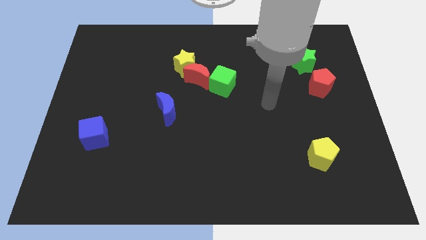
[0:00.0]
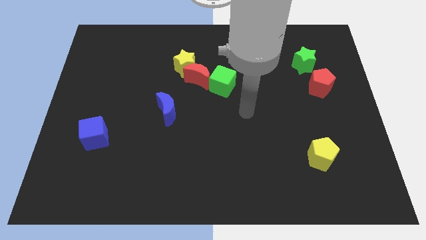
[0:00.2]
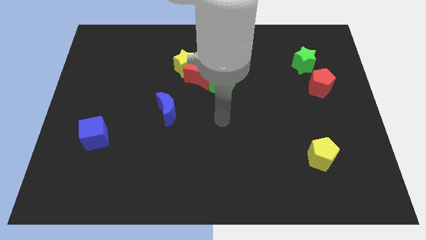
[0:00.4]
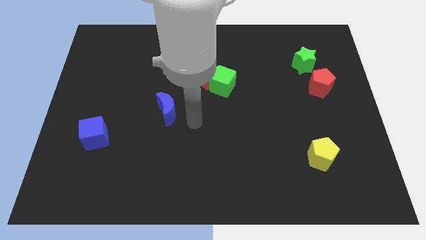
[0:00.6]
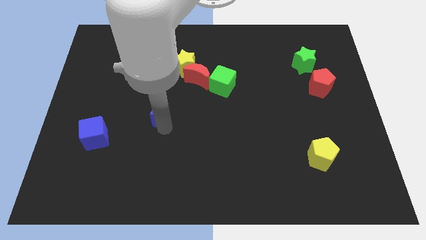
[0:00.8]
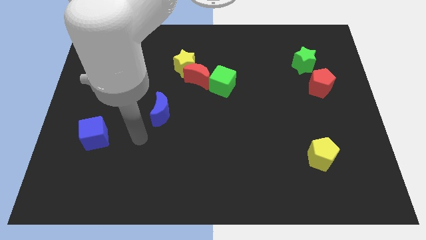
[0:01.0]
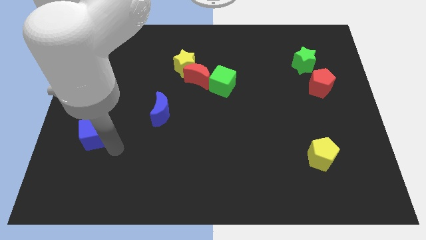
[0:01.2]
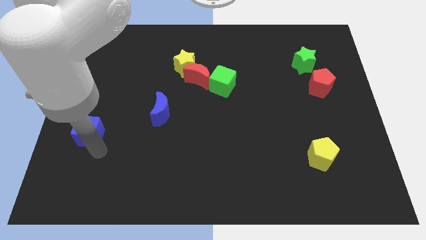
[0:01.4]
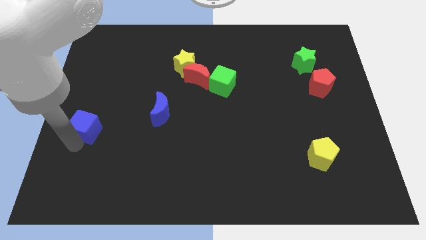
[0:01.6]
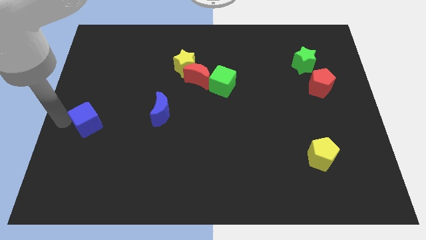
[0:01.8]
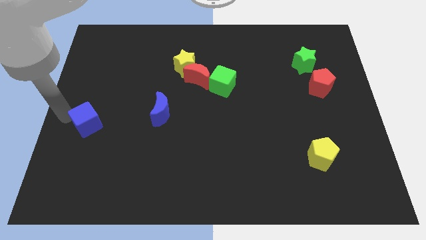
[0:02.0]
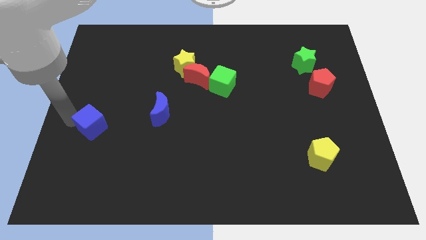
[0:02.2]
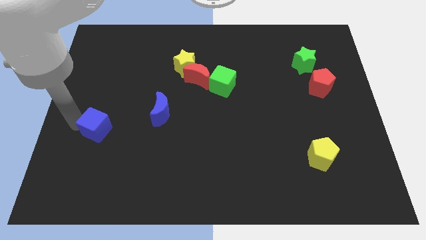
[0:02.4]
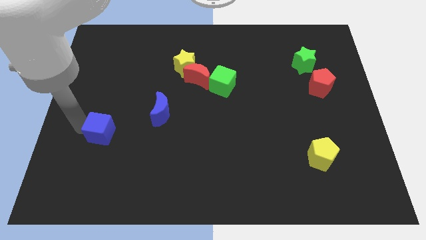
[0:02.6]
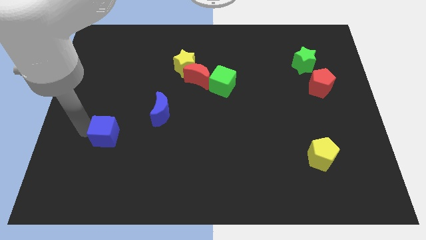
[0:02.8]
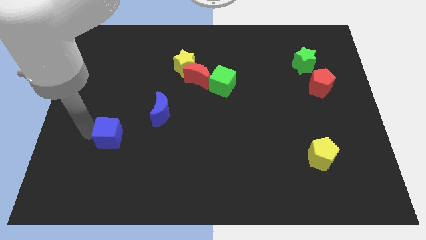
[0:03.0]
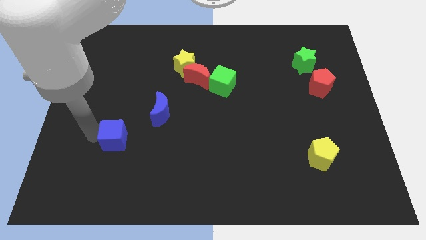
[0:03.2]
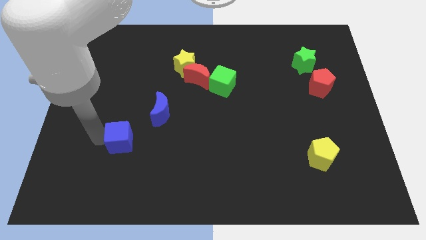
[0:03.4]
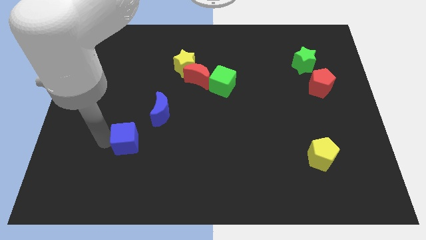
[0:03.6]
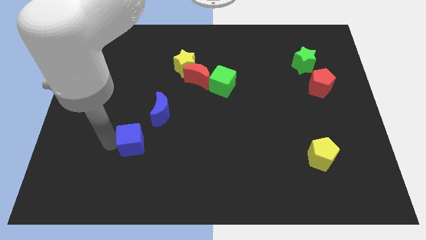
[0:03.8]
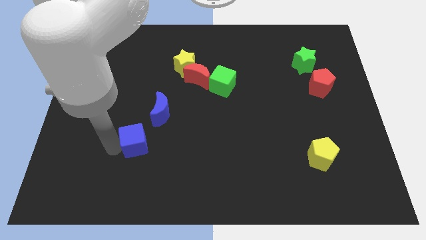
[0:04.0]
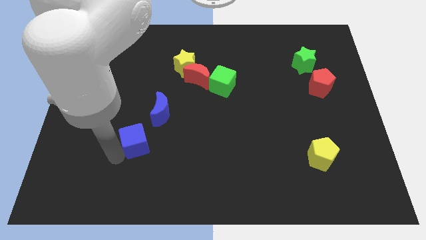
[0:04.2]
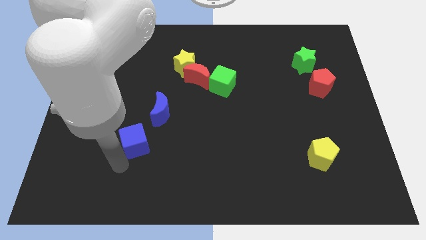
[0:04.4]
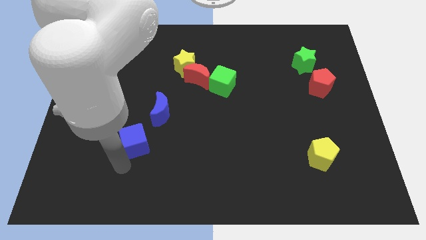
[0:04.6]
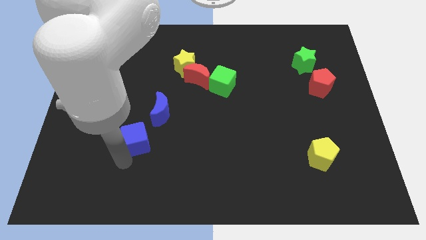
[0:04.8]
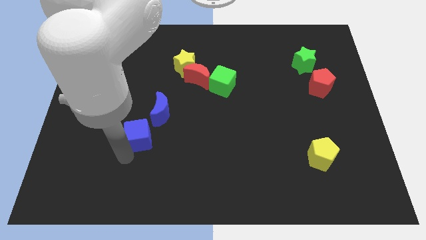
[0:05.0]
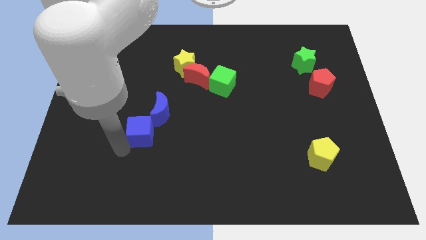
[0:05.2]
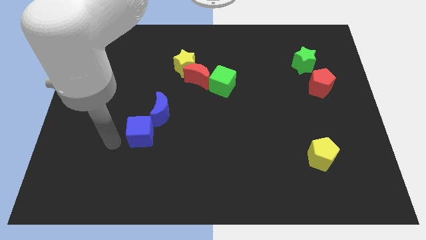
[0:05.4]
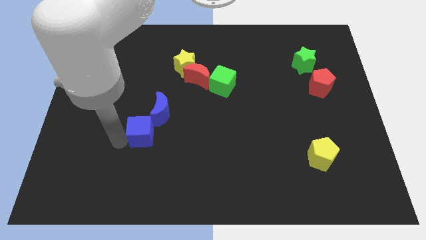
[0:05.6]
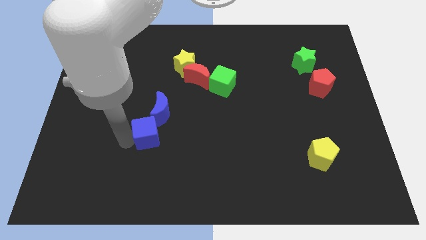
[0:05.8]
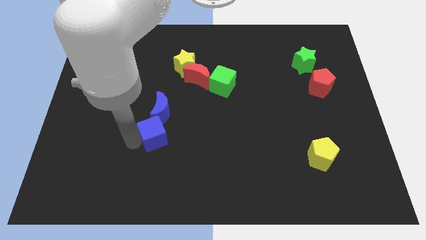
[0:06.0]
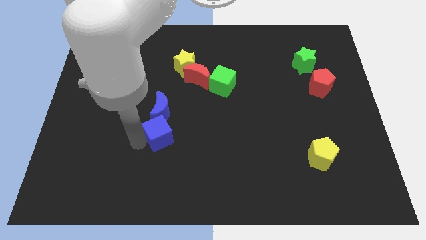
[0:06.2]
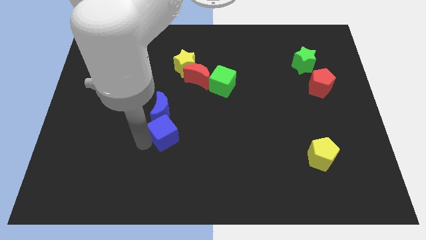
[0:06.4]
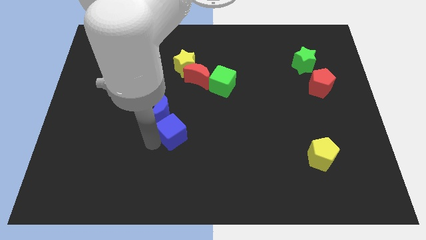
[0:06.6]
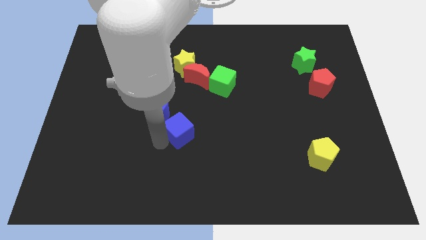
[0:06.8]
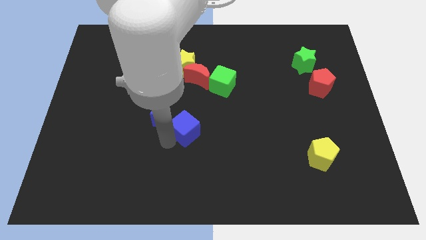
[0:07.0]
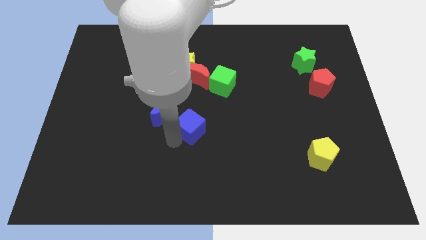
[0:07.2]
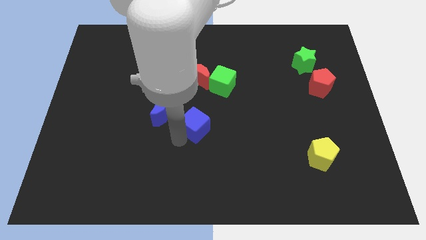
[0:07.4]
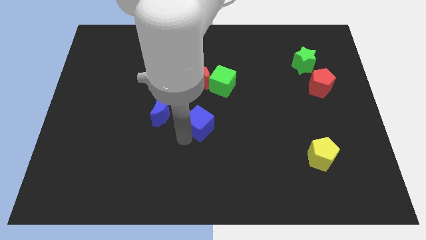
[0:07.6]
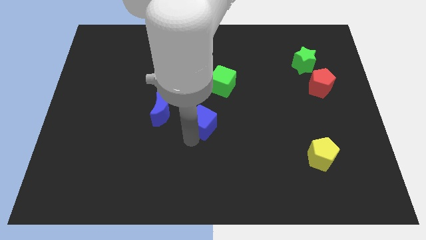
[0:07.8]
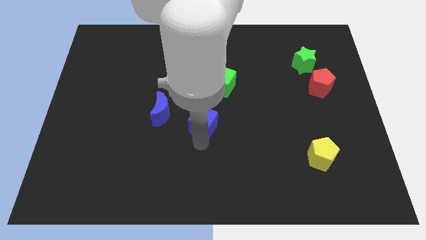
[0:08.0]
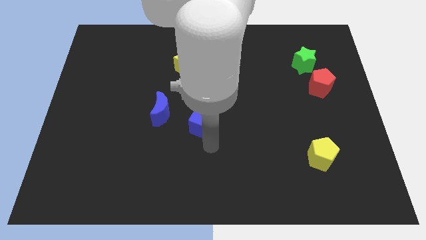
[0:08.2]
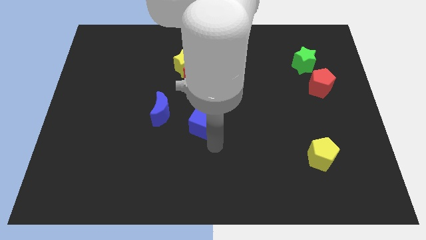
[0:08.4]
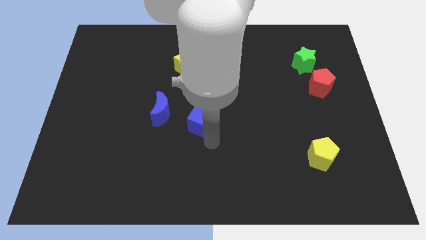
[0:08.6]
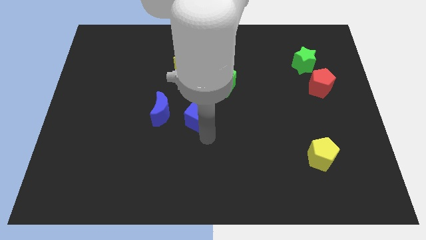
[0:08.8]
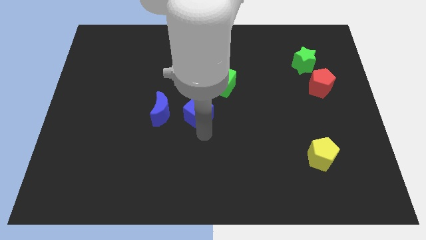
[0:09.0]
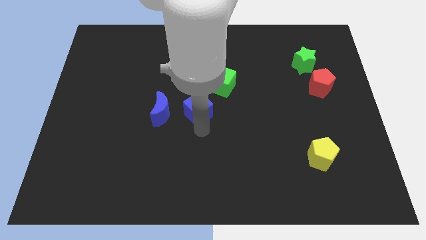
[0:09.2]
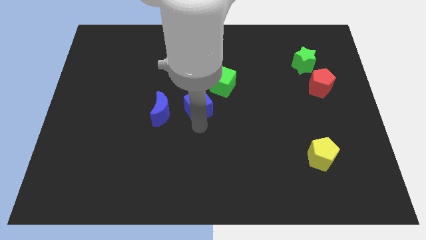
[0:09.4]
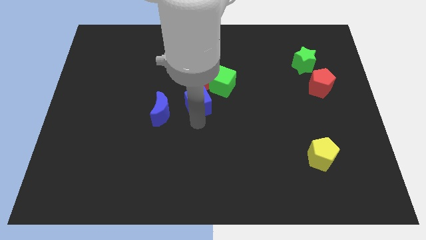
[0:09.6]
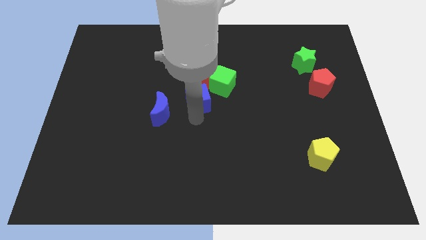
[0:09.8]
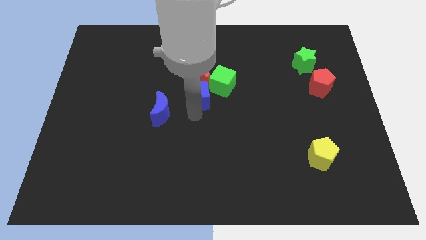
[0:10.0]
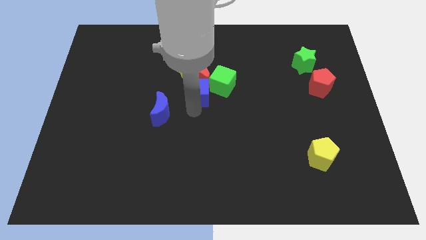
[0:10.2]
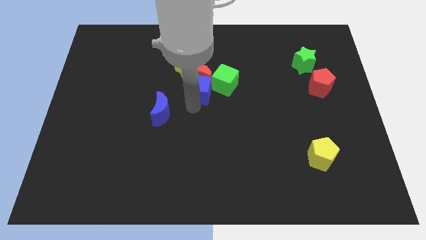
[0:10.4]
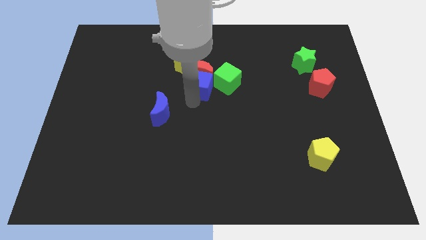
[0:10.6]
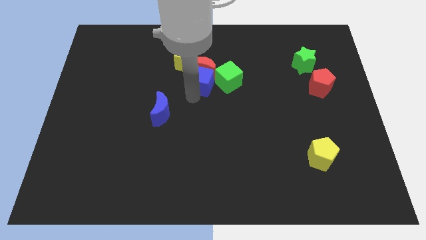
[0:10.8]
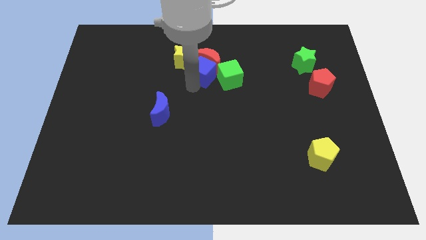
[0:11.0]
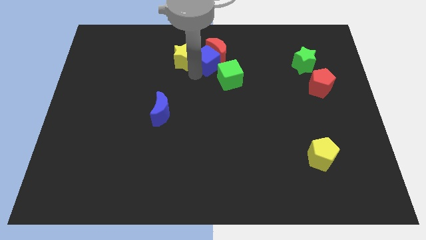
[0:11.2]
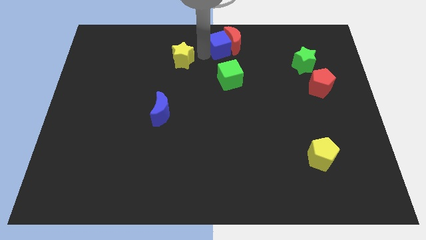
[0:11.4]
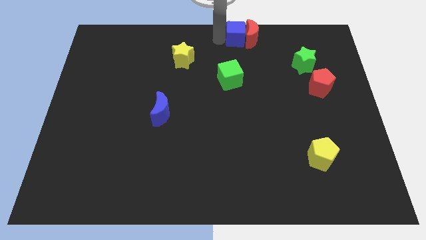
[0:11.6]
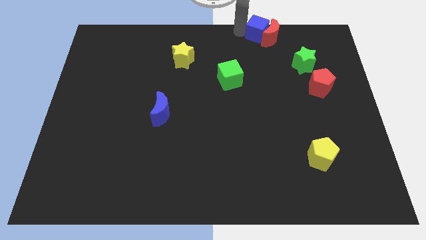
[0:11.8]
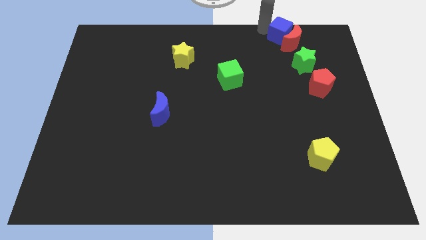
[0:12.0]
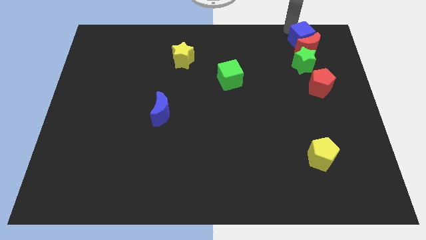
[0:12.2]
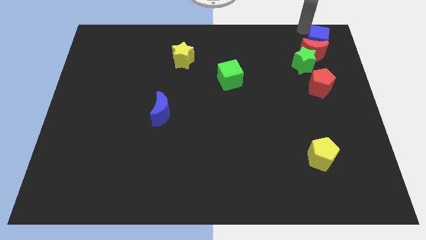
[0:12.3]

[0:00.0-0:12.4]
move the blue cube to the top right

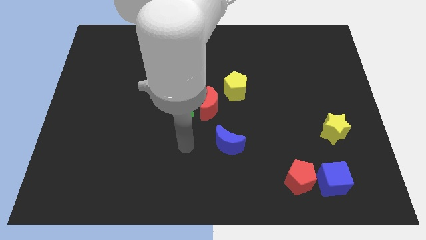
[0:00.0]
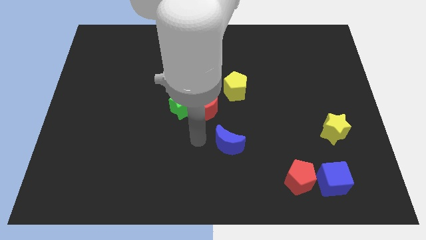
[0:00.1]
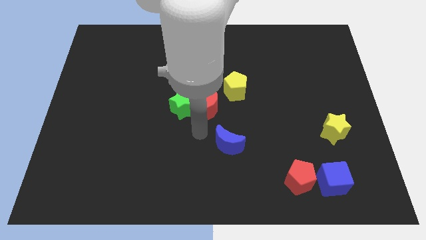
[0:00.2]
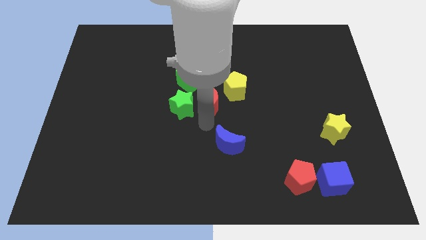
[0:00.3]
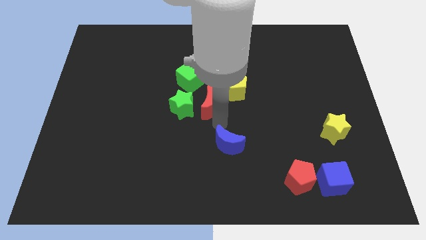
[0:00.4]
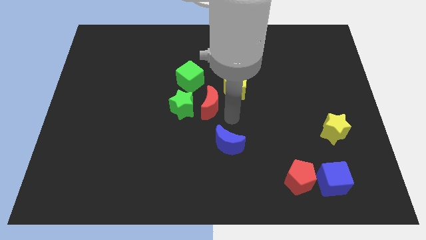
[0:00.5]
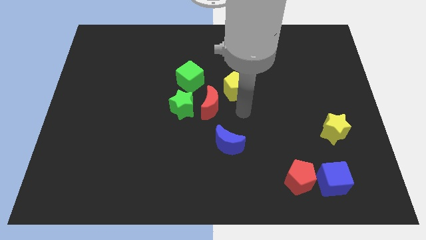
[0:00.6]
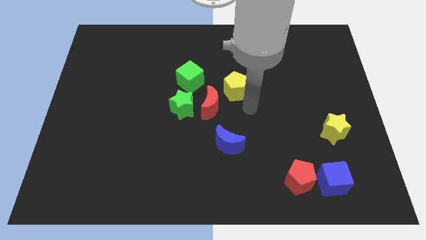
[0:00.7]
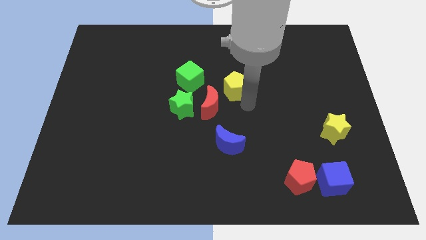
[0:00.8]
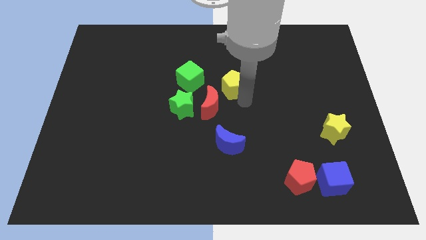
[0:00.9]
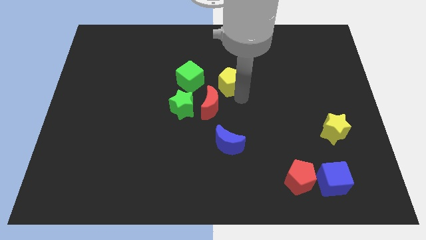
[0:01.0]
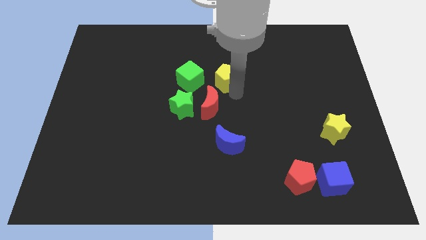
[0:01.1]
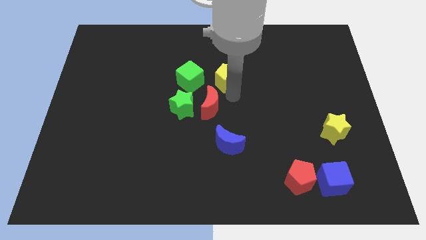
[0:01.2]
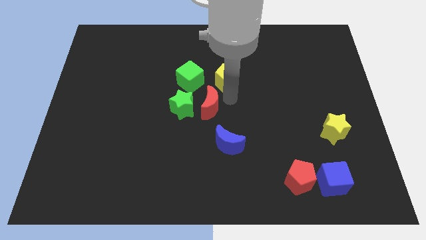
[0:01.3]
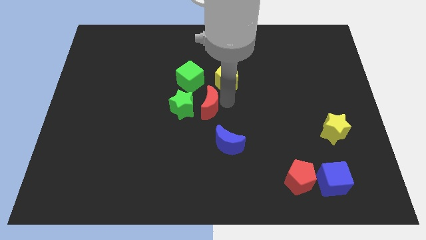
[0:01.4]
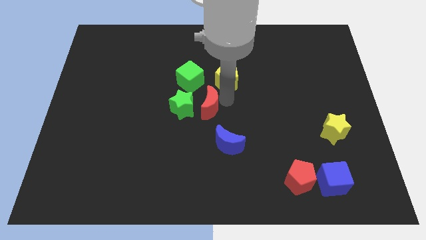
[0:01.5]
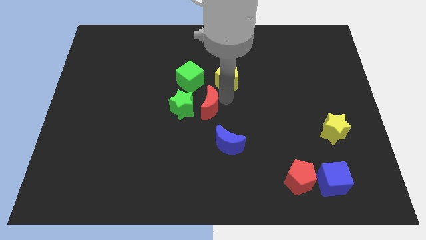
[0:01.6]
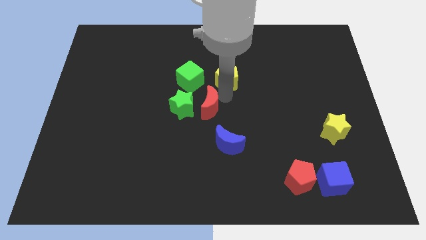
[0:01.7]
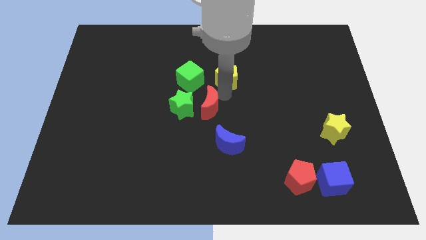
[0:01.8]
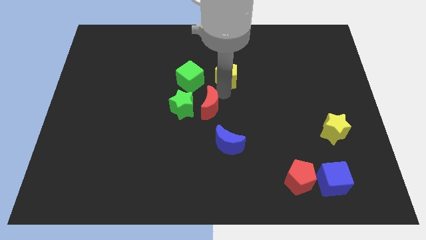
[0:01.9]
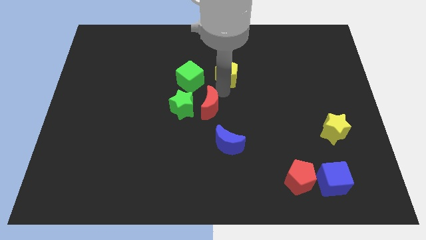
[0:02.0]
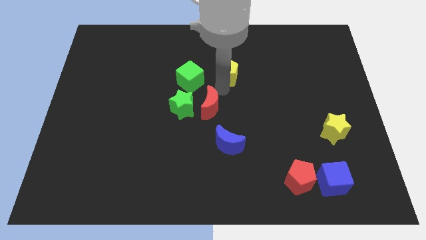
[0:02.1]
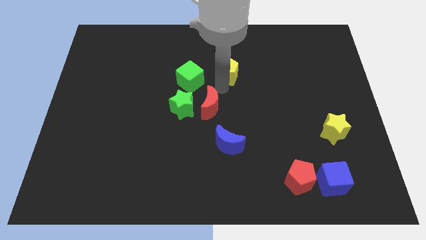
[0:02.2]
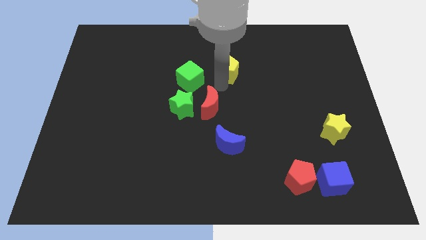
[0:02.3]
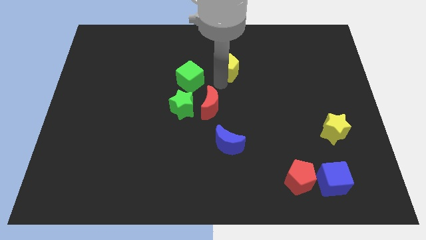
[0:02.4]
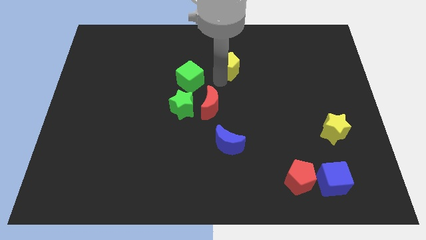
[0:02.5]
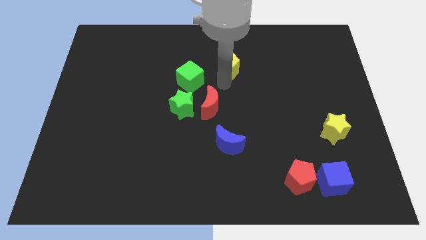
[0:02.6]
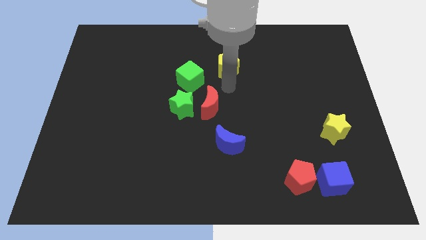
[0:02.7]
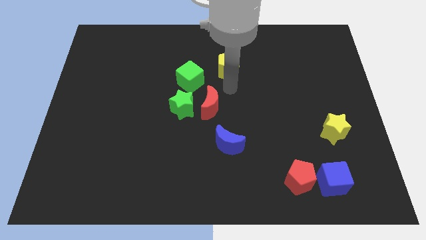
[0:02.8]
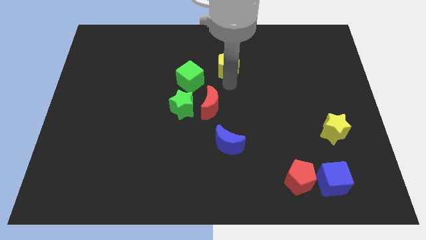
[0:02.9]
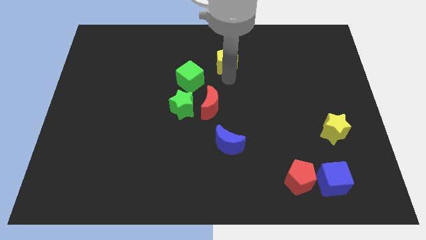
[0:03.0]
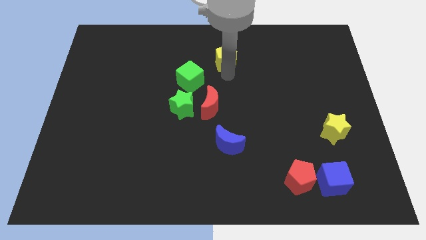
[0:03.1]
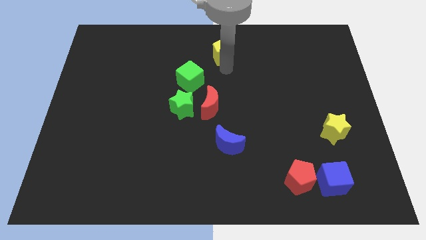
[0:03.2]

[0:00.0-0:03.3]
move the yellow pentagon to the top
